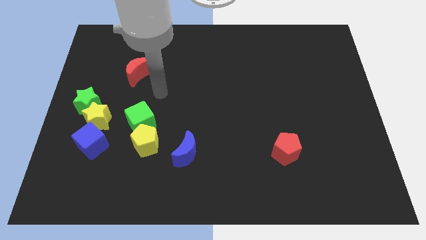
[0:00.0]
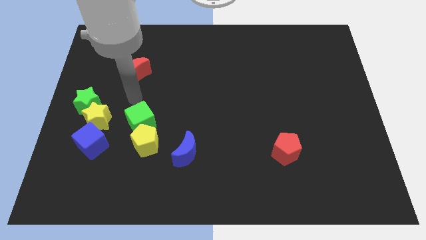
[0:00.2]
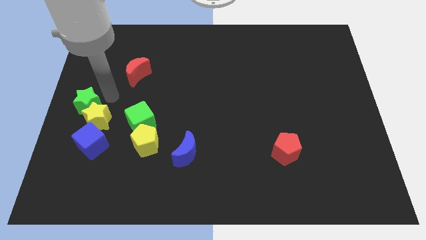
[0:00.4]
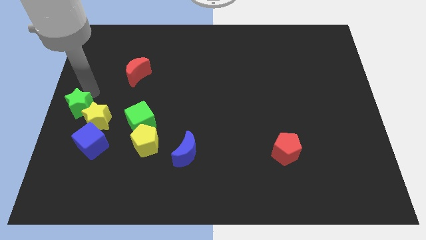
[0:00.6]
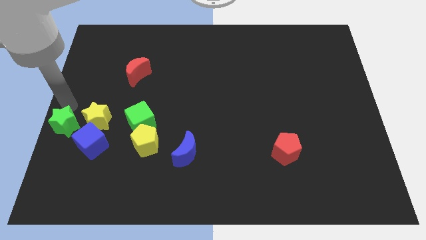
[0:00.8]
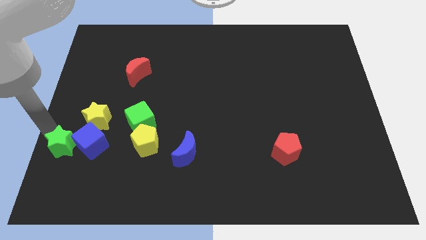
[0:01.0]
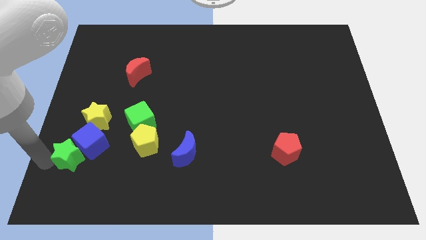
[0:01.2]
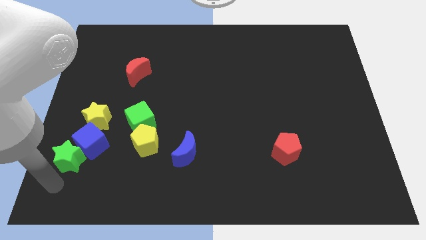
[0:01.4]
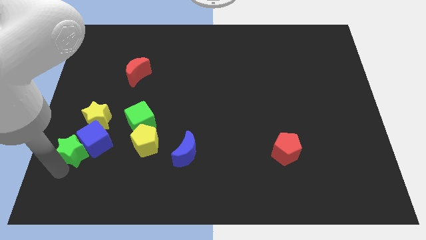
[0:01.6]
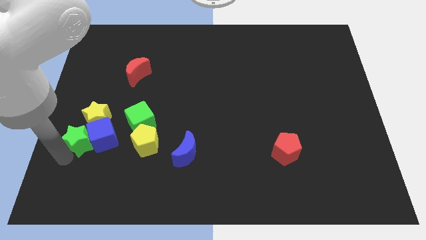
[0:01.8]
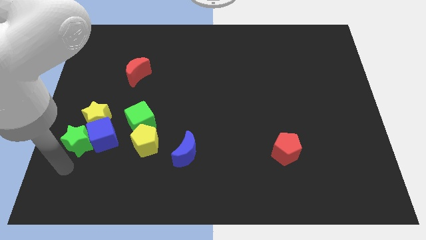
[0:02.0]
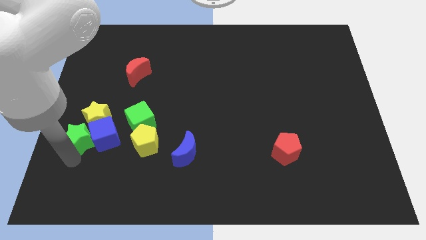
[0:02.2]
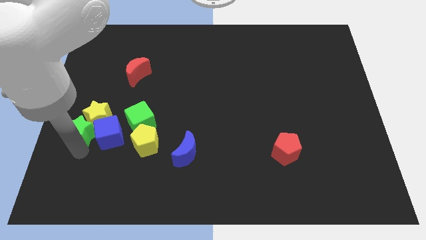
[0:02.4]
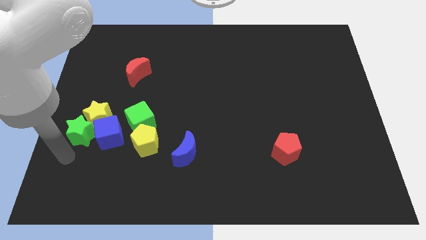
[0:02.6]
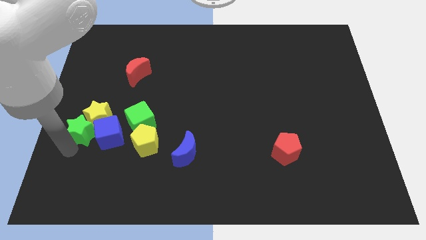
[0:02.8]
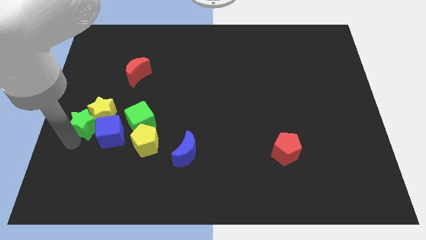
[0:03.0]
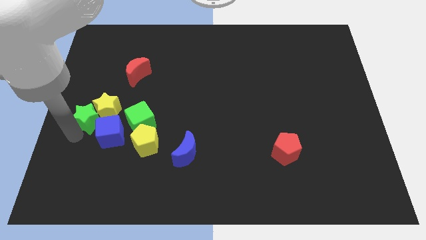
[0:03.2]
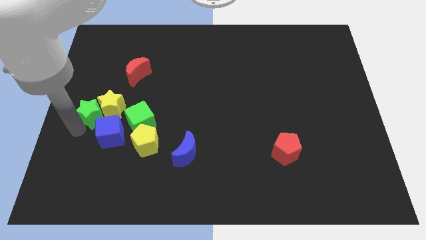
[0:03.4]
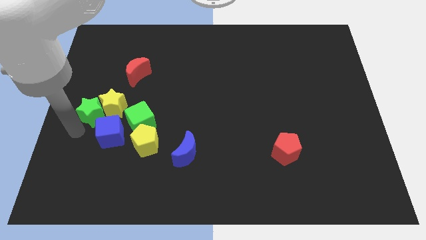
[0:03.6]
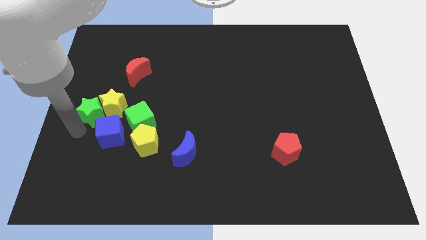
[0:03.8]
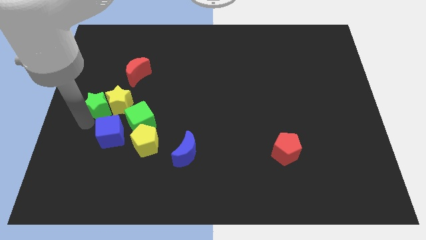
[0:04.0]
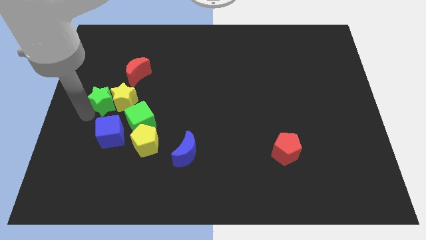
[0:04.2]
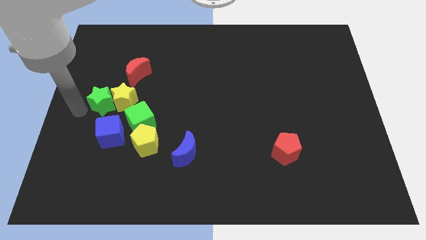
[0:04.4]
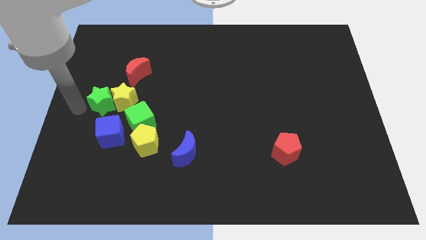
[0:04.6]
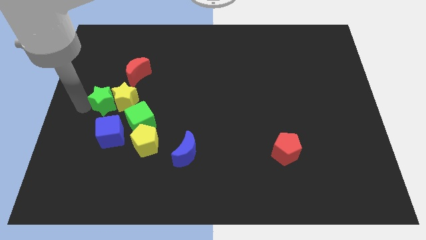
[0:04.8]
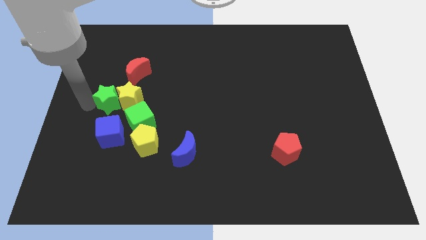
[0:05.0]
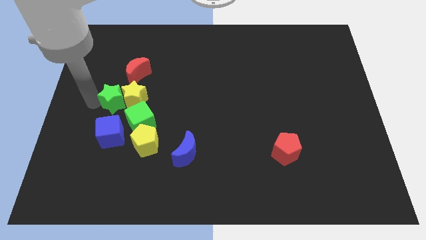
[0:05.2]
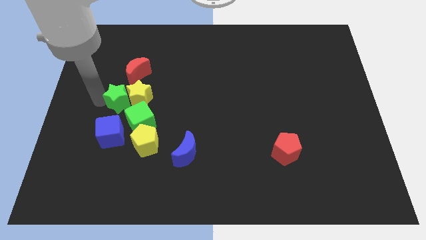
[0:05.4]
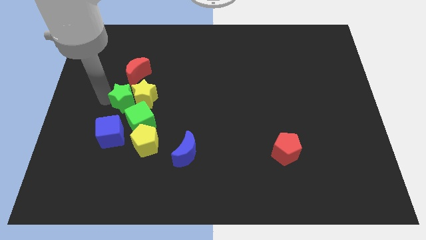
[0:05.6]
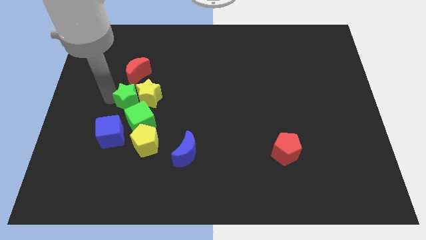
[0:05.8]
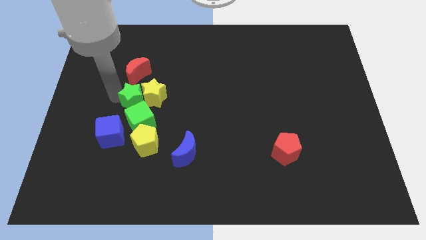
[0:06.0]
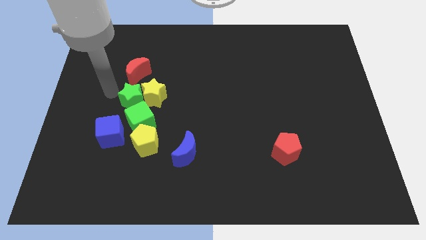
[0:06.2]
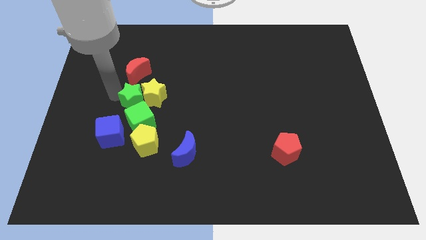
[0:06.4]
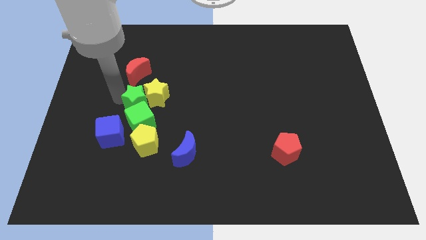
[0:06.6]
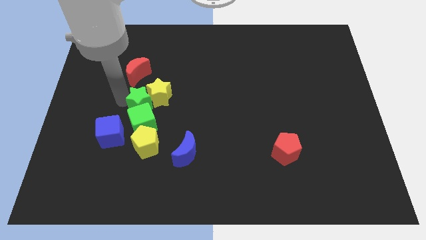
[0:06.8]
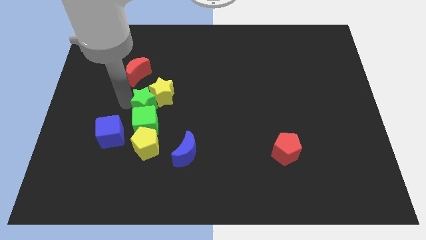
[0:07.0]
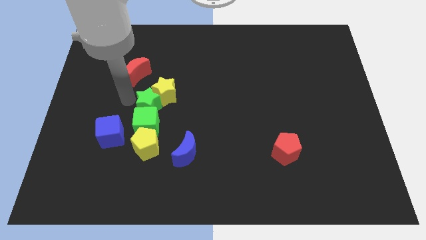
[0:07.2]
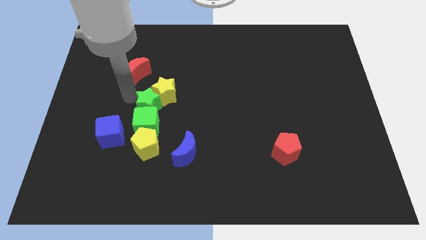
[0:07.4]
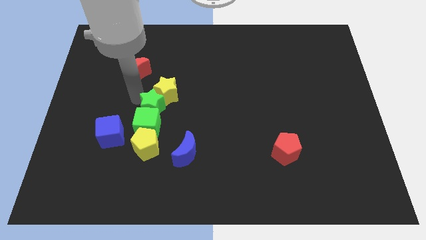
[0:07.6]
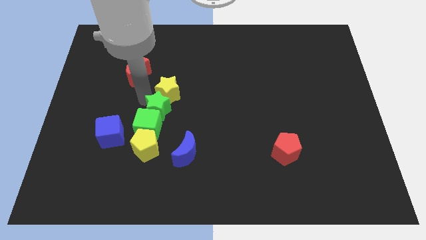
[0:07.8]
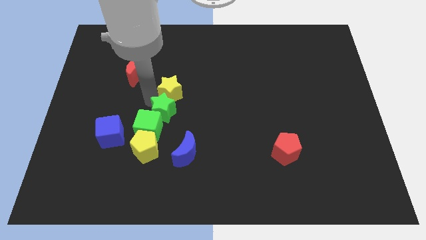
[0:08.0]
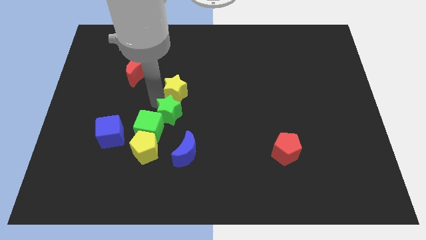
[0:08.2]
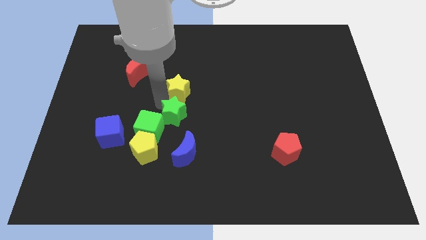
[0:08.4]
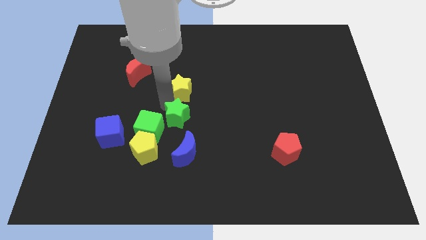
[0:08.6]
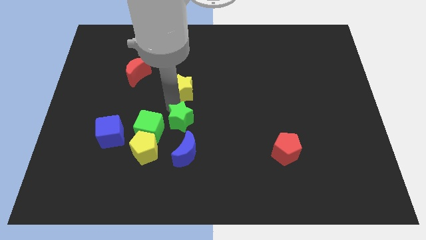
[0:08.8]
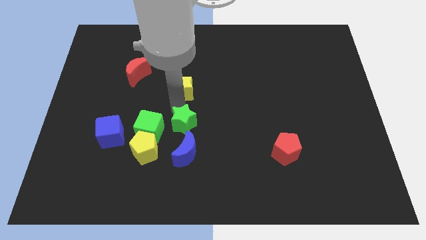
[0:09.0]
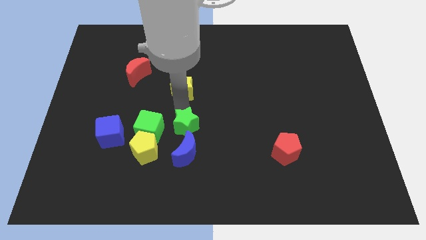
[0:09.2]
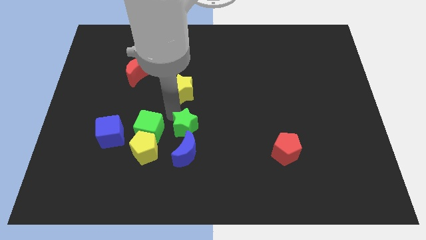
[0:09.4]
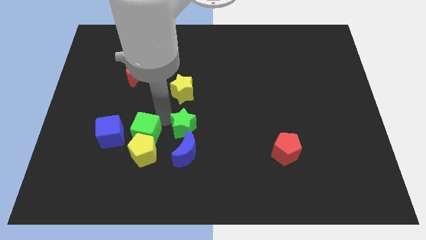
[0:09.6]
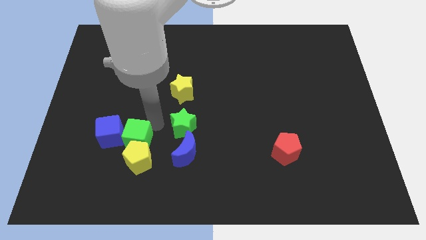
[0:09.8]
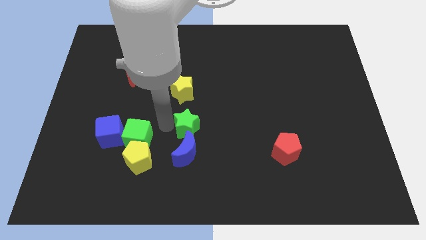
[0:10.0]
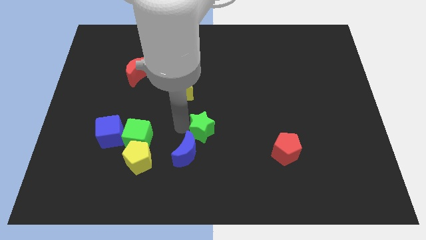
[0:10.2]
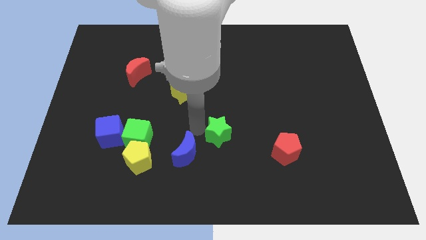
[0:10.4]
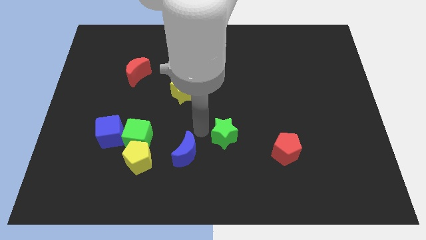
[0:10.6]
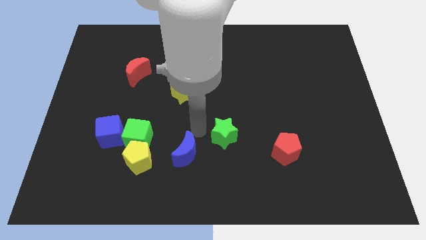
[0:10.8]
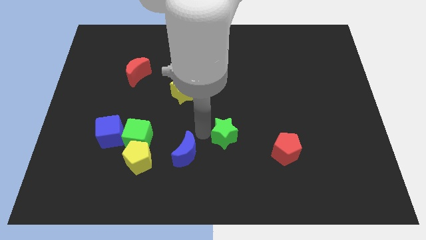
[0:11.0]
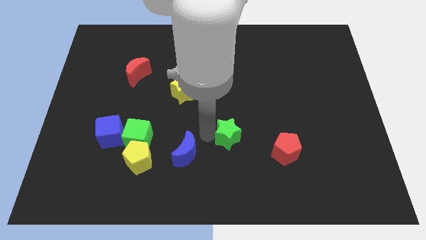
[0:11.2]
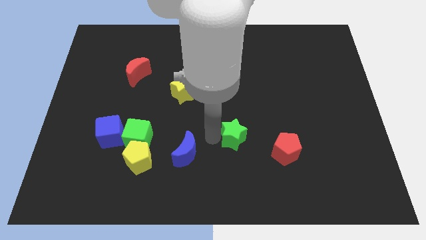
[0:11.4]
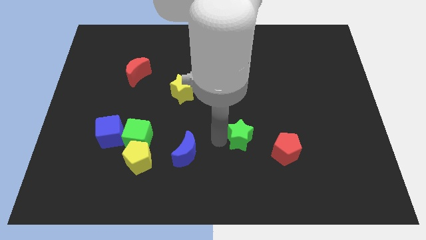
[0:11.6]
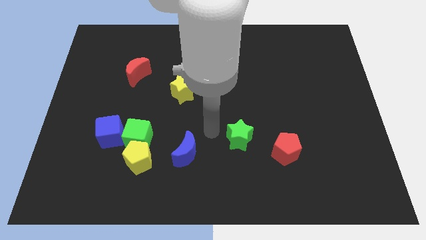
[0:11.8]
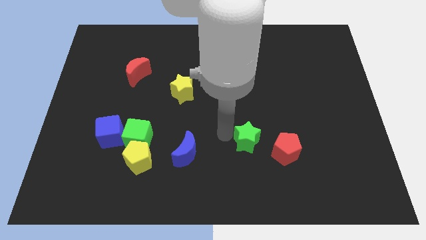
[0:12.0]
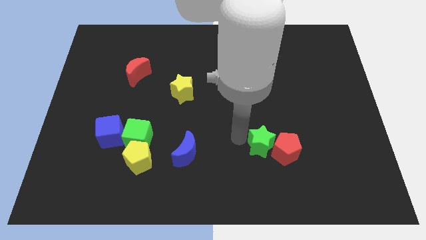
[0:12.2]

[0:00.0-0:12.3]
put the green star close to the red pentagon

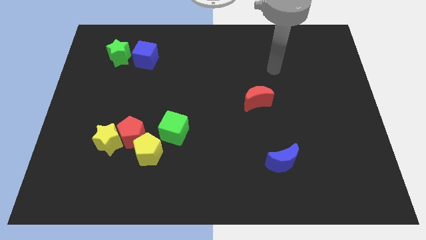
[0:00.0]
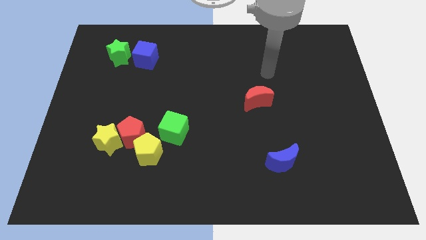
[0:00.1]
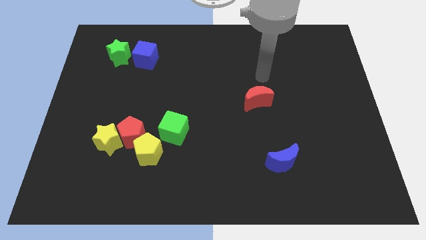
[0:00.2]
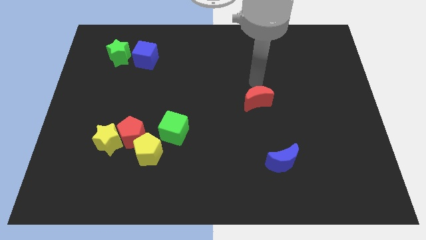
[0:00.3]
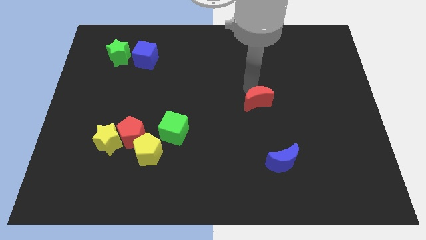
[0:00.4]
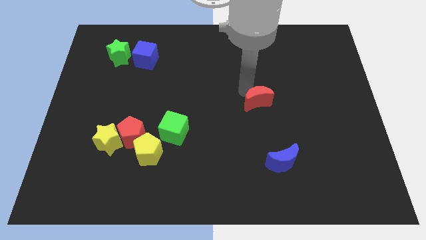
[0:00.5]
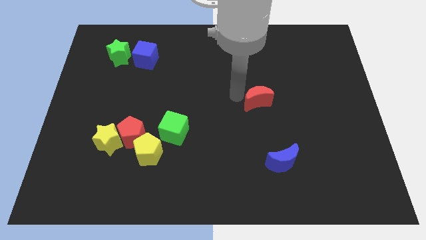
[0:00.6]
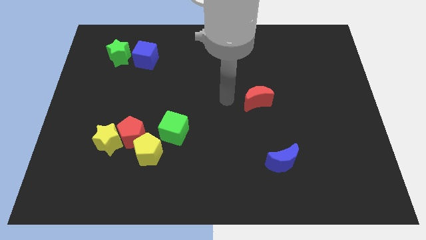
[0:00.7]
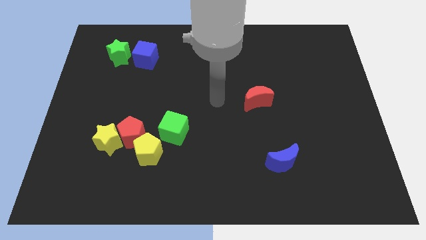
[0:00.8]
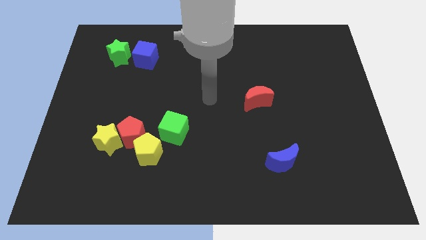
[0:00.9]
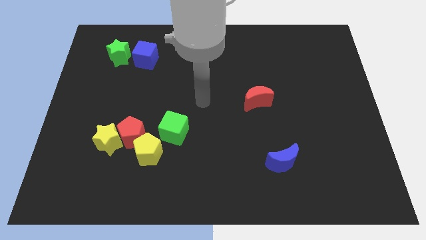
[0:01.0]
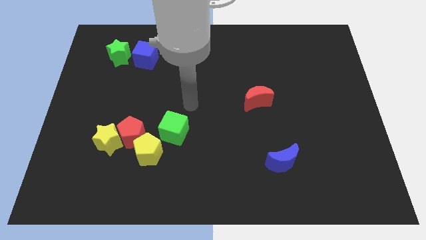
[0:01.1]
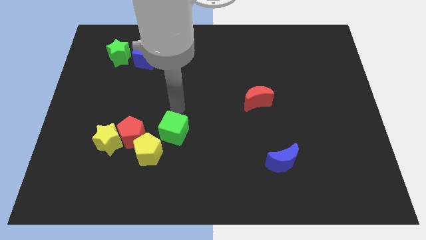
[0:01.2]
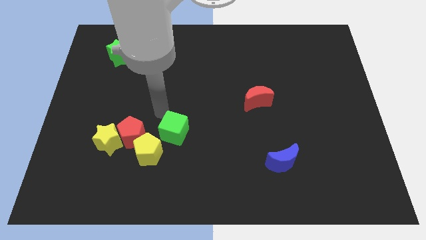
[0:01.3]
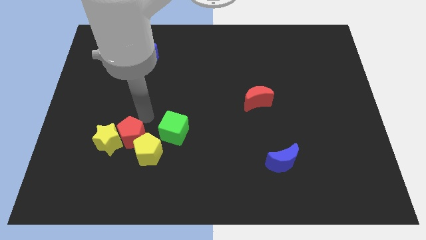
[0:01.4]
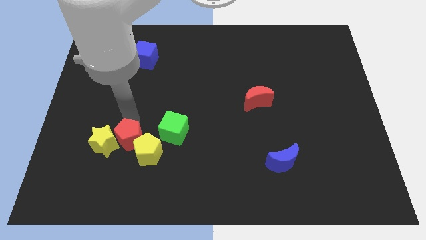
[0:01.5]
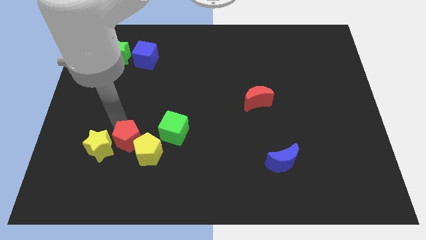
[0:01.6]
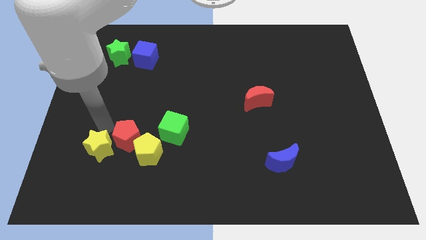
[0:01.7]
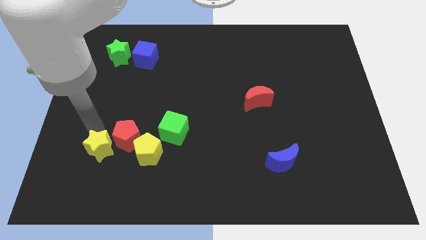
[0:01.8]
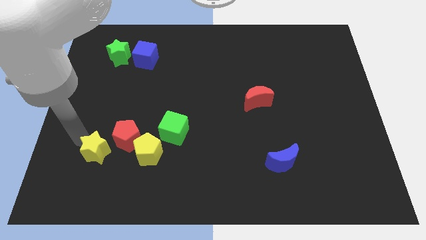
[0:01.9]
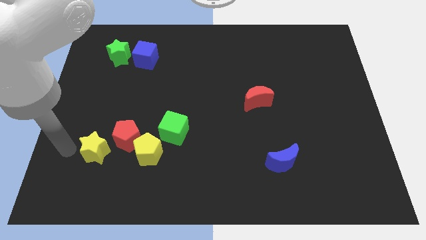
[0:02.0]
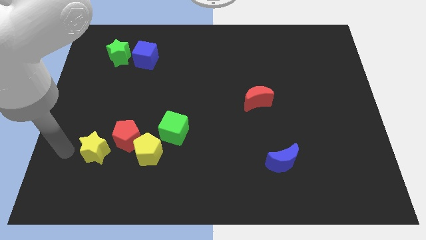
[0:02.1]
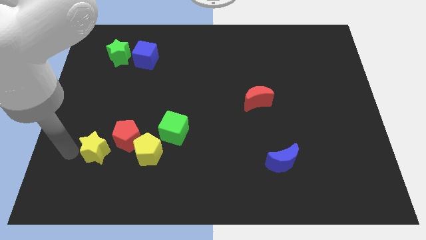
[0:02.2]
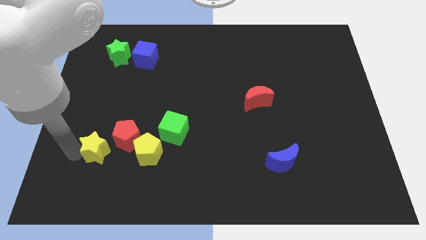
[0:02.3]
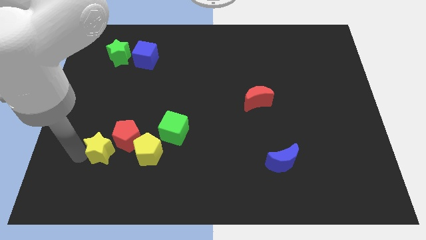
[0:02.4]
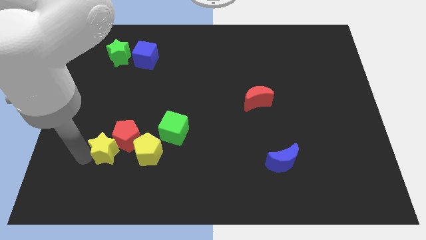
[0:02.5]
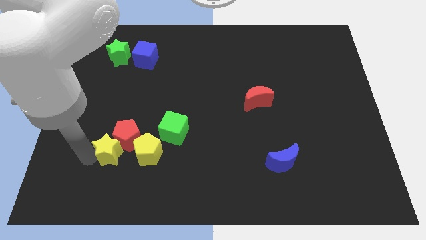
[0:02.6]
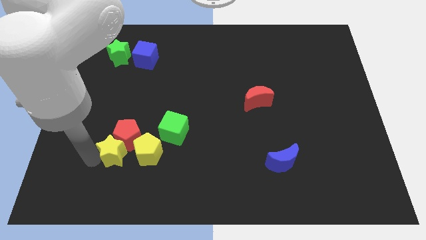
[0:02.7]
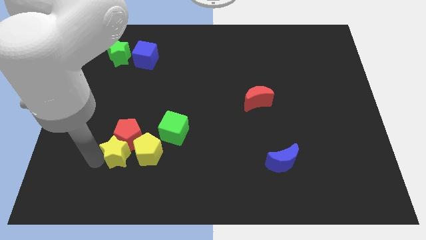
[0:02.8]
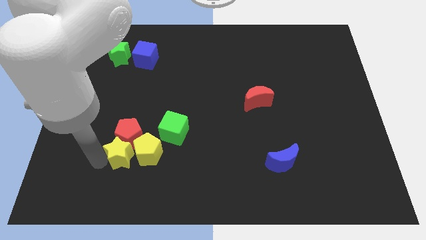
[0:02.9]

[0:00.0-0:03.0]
move the yellow star close to the yellow pentagon
